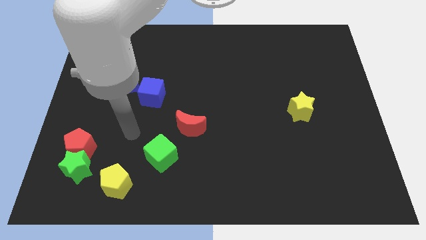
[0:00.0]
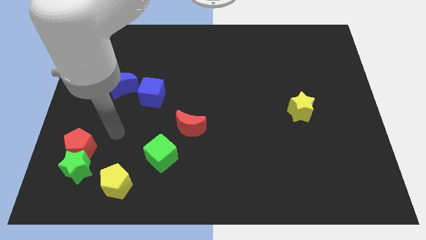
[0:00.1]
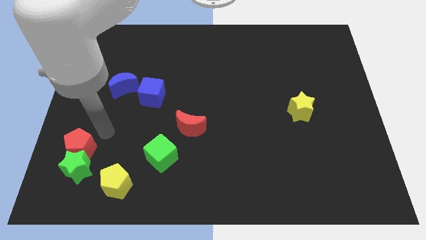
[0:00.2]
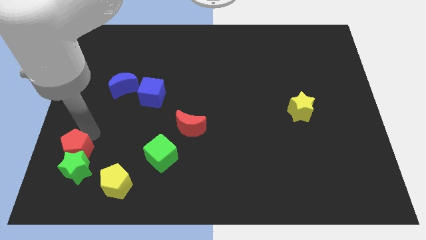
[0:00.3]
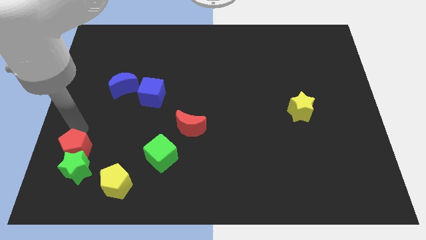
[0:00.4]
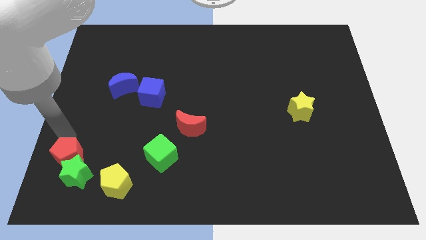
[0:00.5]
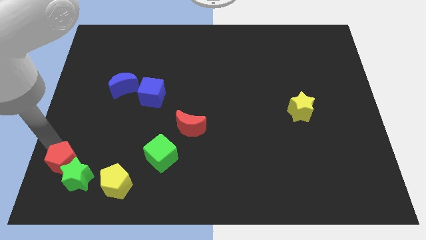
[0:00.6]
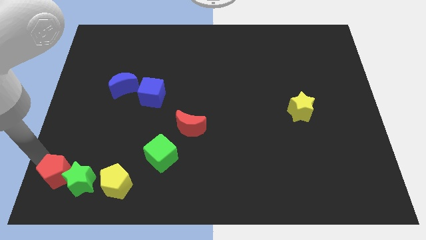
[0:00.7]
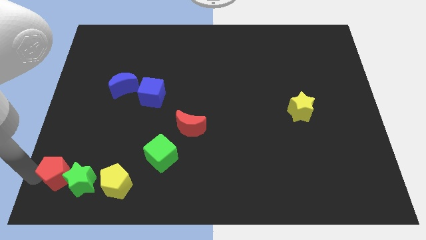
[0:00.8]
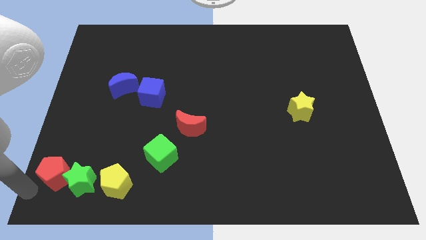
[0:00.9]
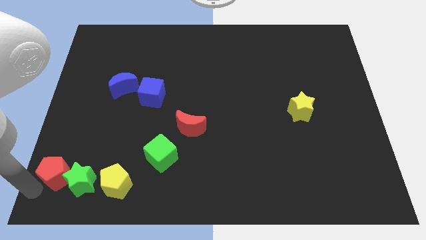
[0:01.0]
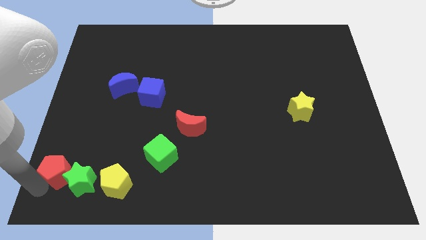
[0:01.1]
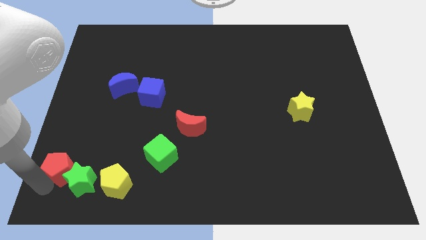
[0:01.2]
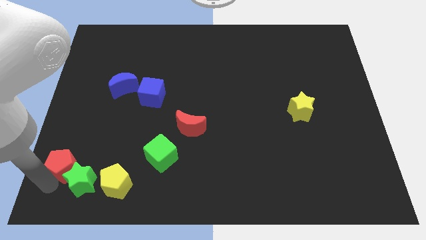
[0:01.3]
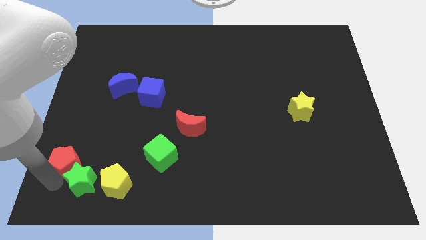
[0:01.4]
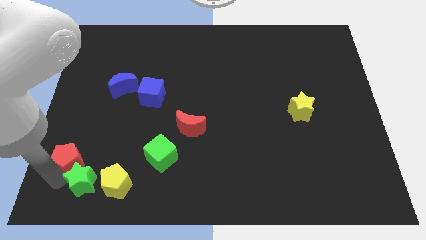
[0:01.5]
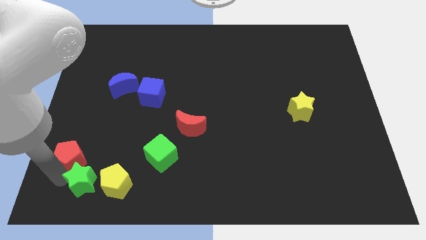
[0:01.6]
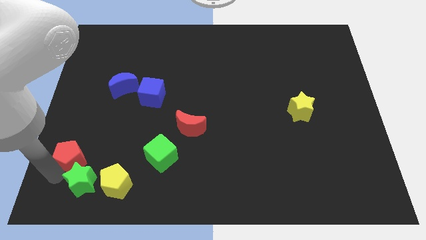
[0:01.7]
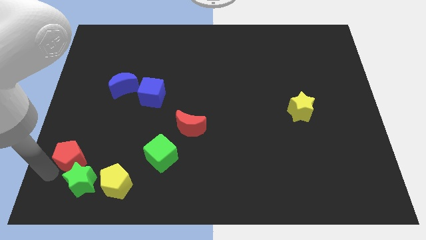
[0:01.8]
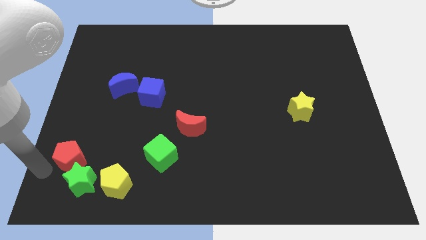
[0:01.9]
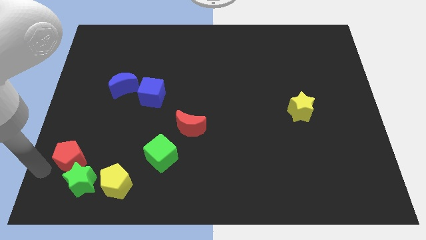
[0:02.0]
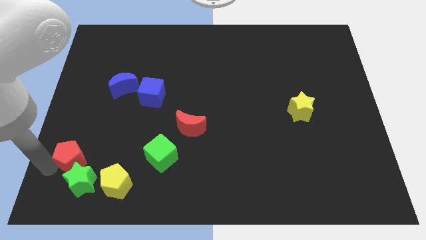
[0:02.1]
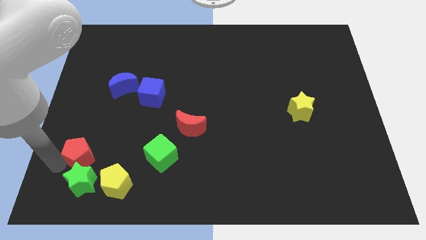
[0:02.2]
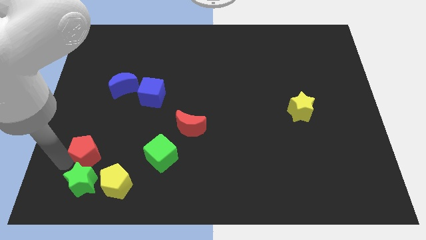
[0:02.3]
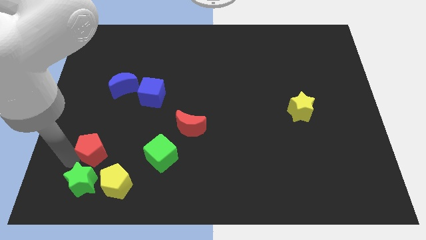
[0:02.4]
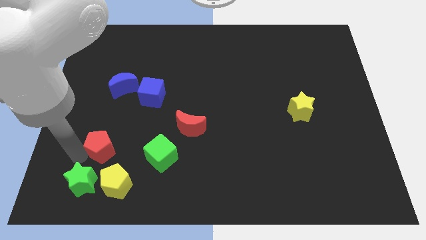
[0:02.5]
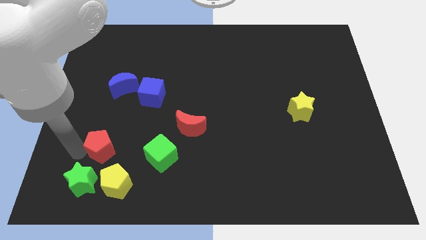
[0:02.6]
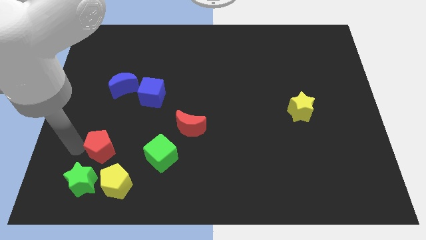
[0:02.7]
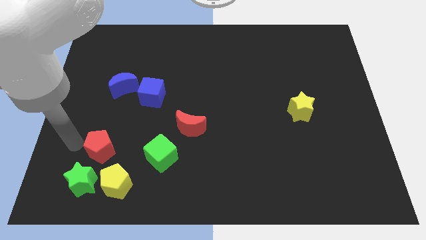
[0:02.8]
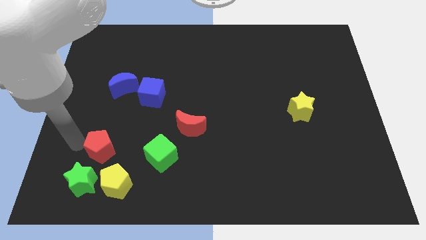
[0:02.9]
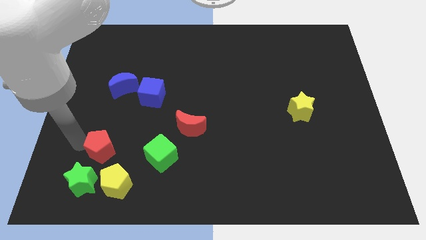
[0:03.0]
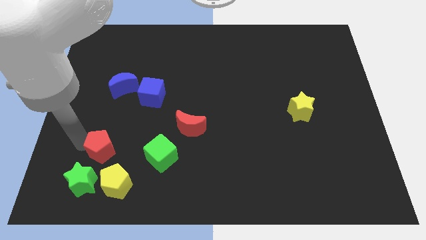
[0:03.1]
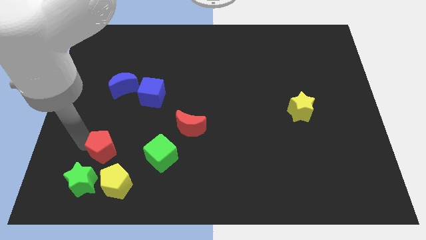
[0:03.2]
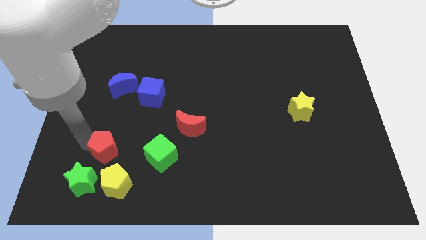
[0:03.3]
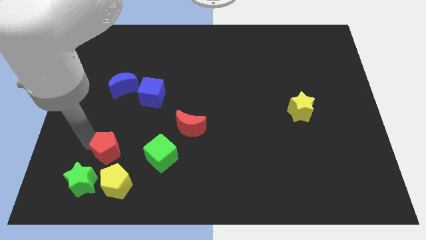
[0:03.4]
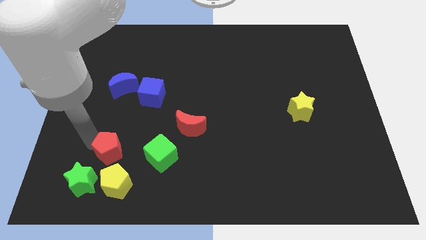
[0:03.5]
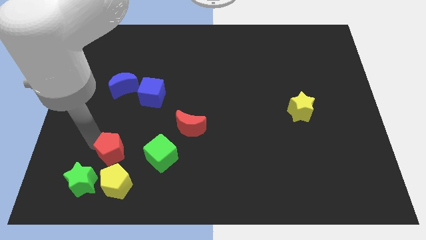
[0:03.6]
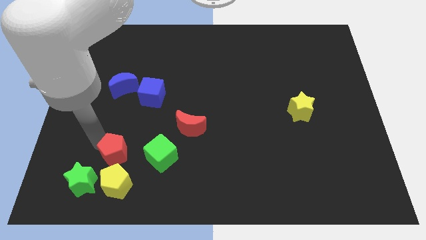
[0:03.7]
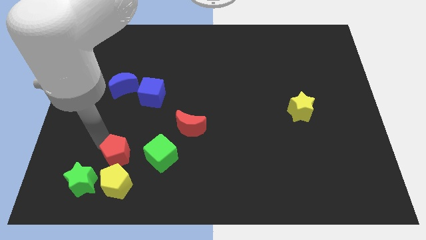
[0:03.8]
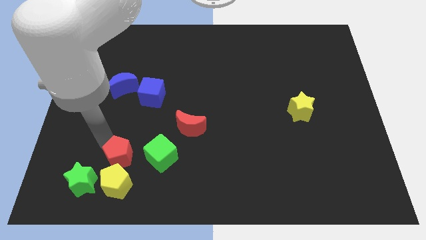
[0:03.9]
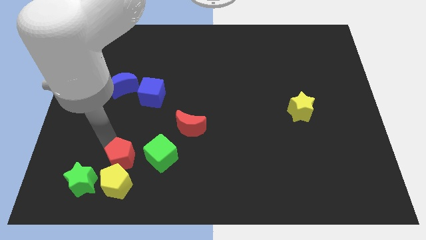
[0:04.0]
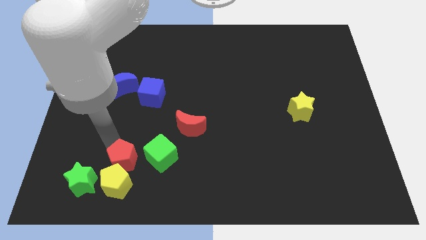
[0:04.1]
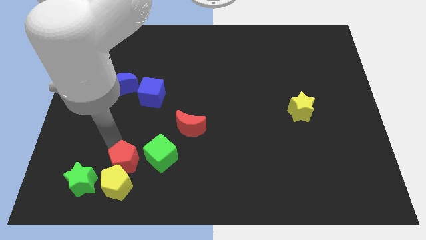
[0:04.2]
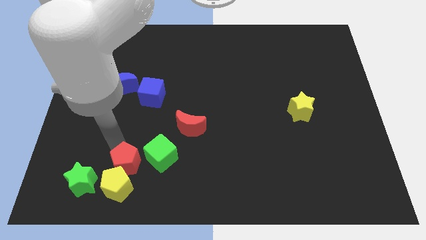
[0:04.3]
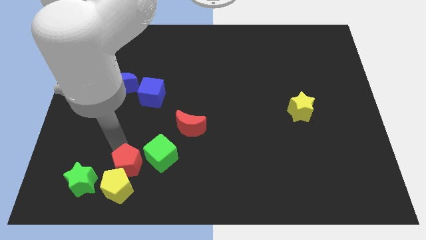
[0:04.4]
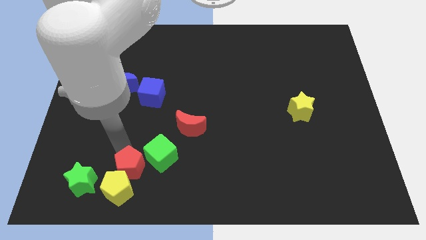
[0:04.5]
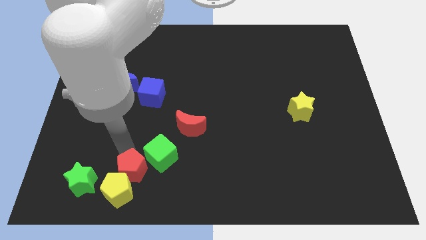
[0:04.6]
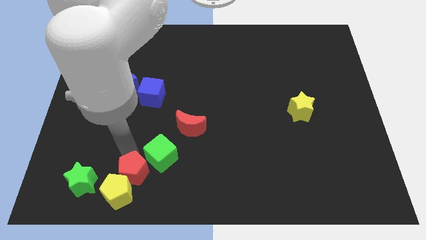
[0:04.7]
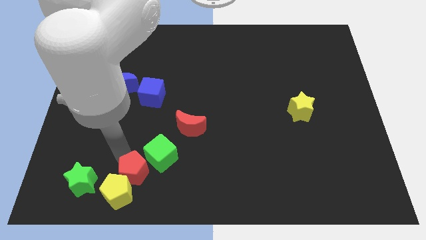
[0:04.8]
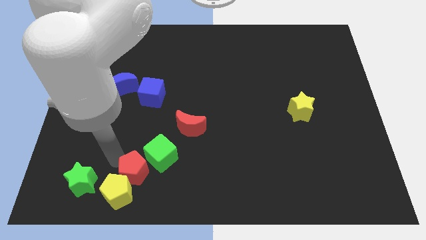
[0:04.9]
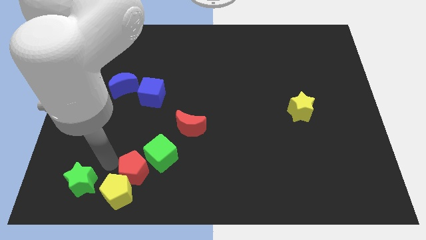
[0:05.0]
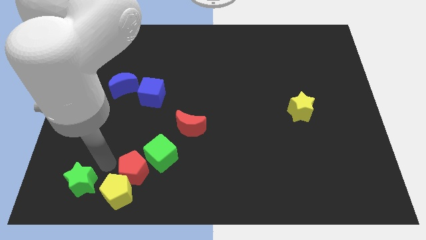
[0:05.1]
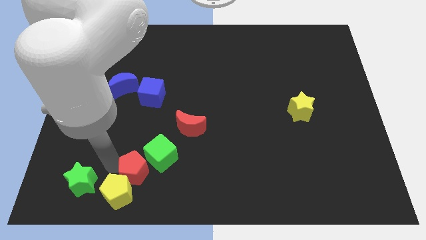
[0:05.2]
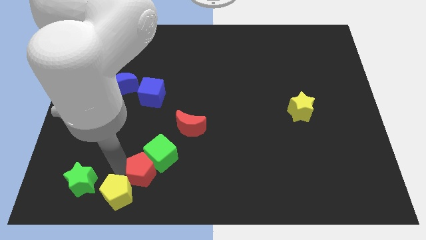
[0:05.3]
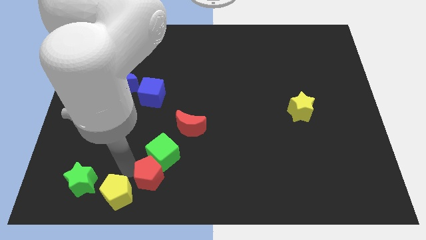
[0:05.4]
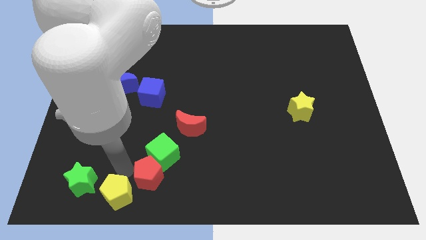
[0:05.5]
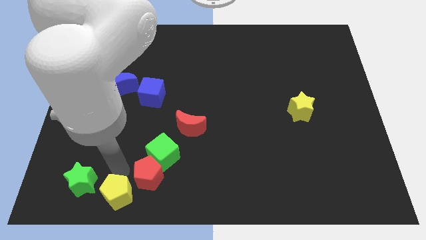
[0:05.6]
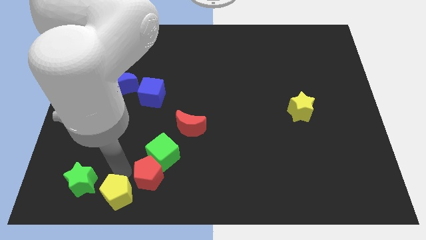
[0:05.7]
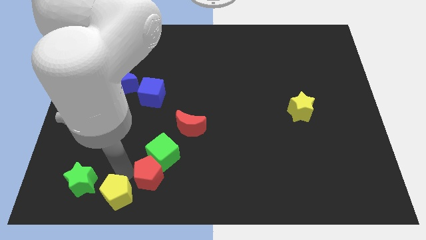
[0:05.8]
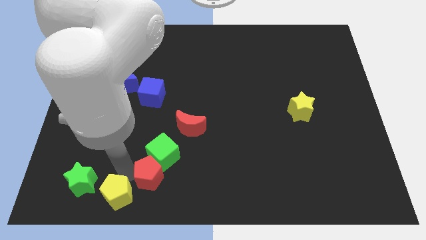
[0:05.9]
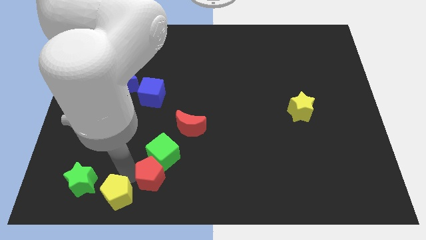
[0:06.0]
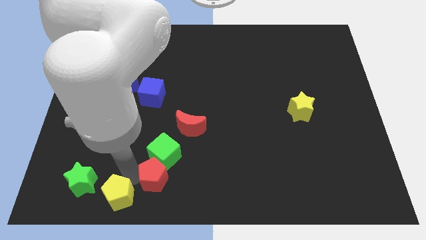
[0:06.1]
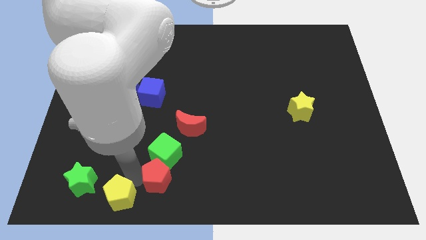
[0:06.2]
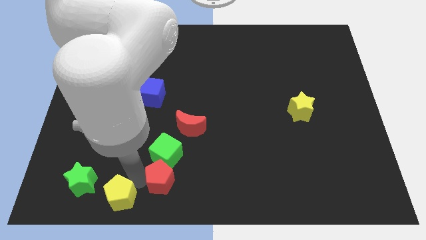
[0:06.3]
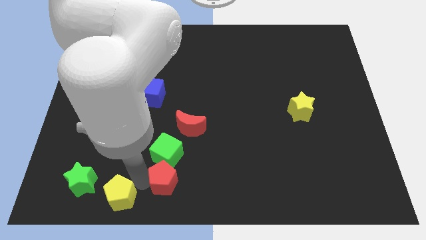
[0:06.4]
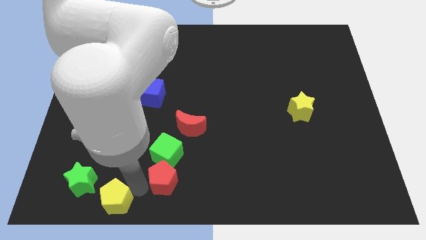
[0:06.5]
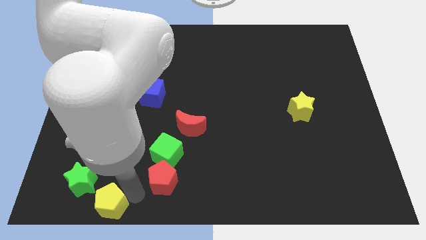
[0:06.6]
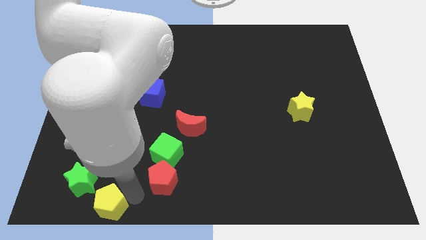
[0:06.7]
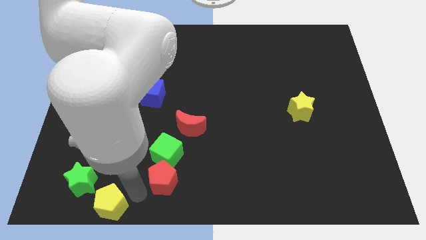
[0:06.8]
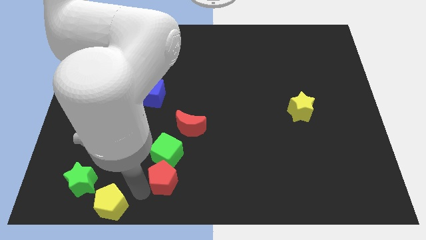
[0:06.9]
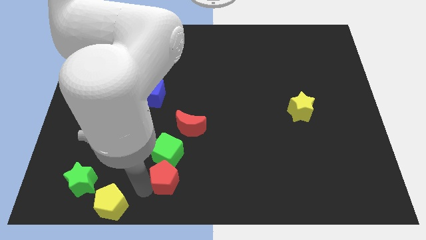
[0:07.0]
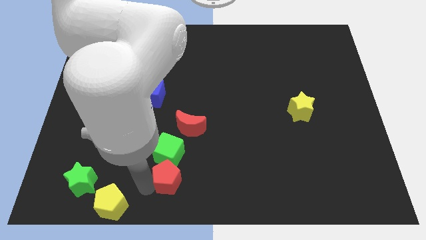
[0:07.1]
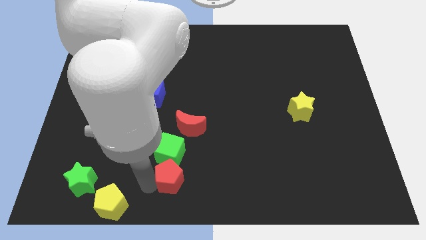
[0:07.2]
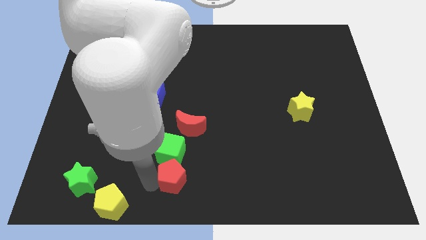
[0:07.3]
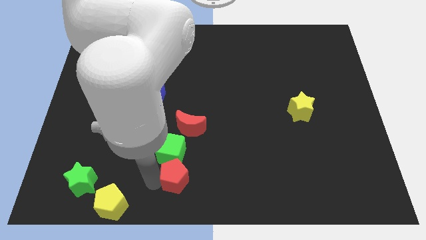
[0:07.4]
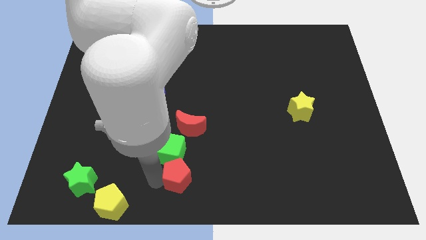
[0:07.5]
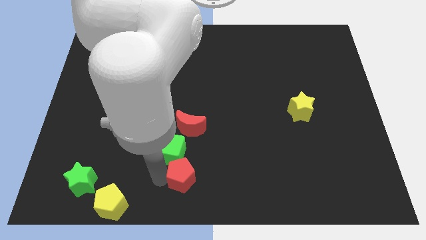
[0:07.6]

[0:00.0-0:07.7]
slide the red pentagon to the right

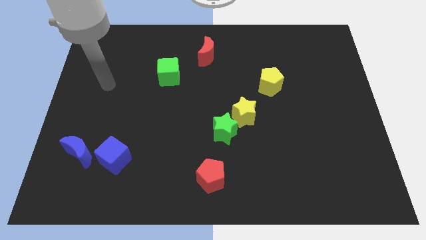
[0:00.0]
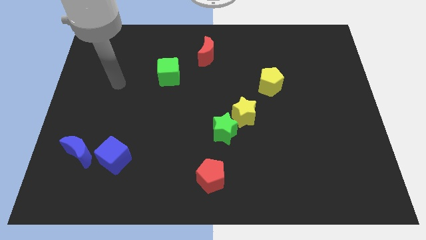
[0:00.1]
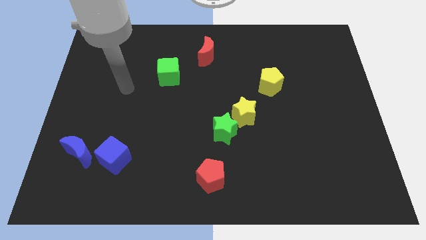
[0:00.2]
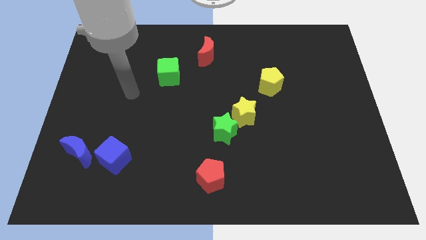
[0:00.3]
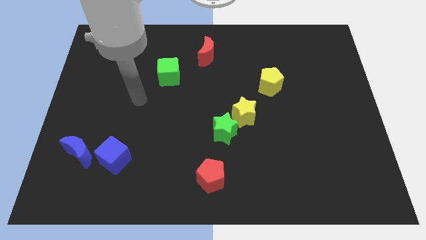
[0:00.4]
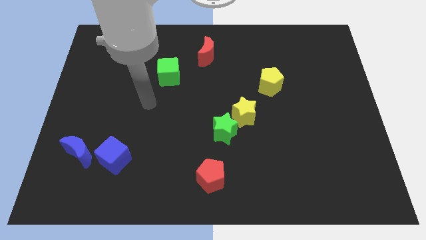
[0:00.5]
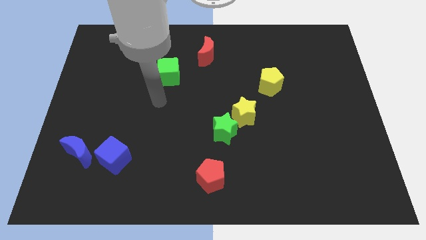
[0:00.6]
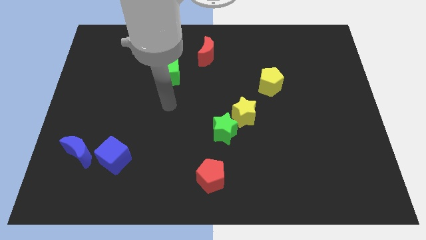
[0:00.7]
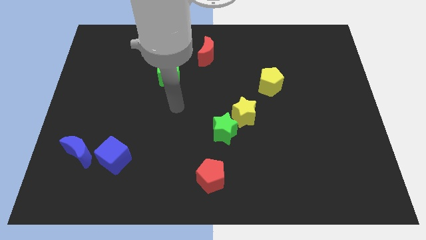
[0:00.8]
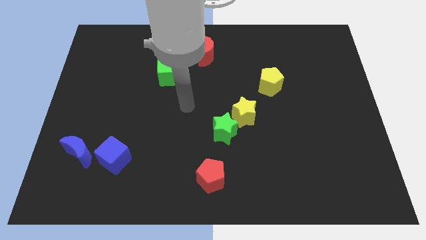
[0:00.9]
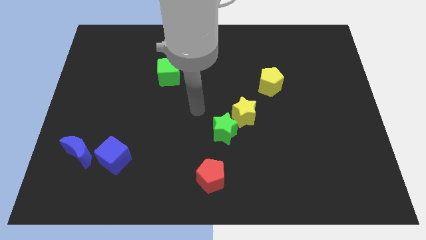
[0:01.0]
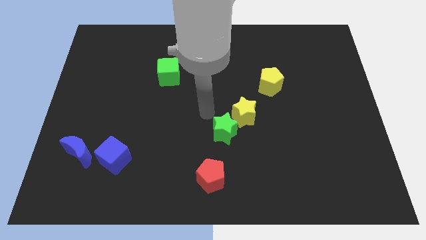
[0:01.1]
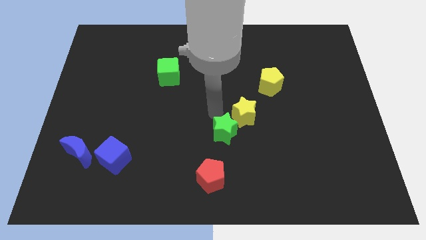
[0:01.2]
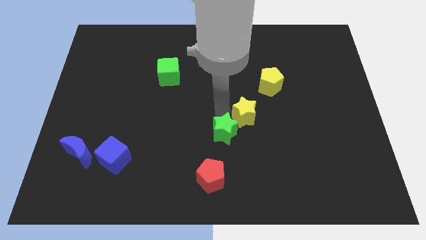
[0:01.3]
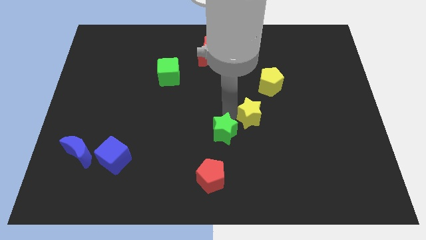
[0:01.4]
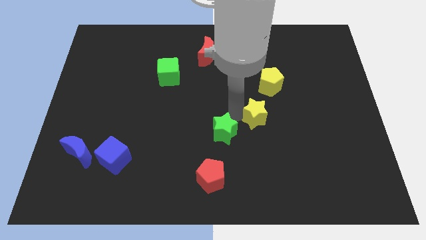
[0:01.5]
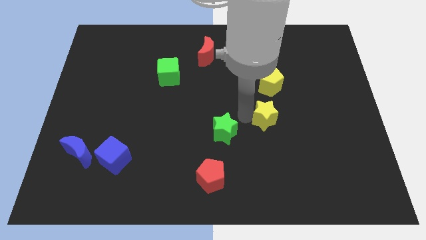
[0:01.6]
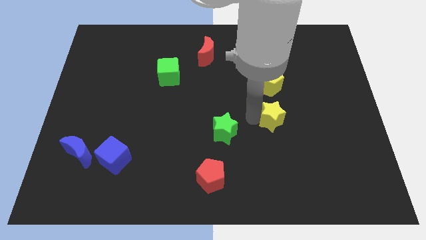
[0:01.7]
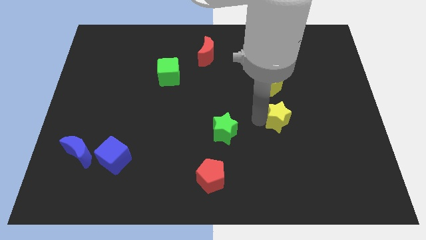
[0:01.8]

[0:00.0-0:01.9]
move the yellow star a bit right
